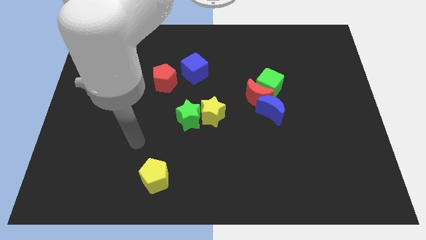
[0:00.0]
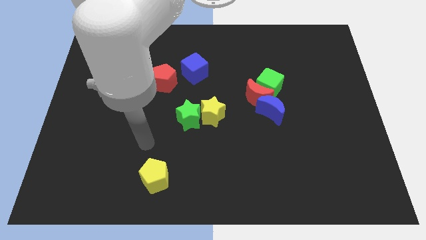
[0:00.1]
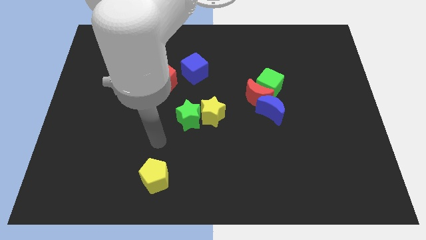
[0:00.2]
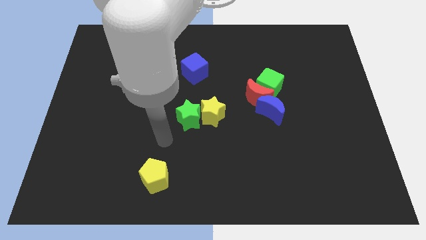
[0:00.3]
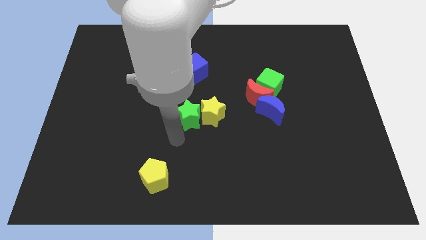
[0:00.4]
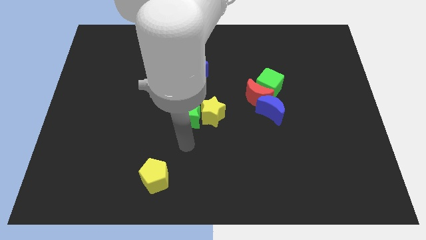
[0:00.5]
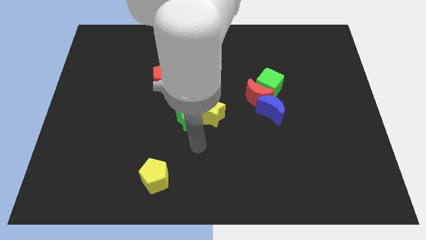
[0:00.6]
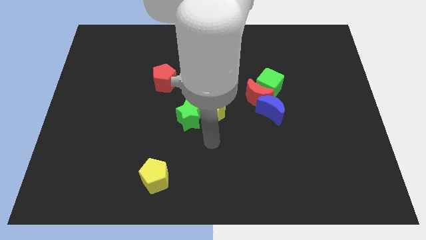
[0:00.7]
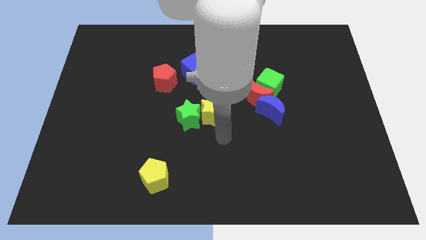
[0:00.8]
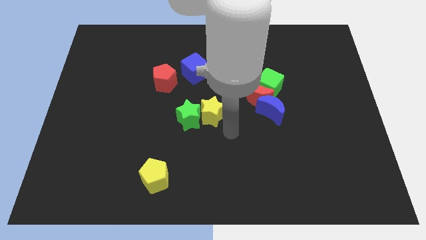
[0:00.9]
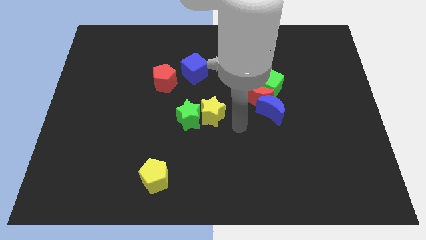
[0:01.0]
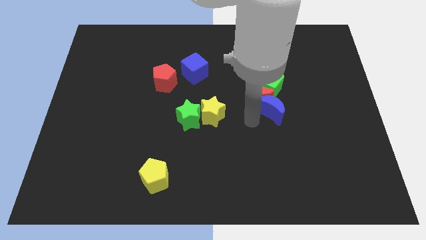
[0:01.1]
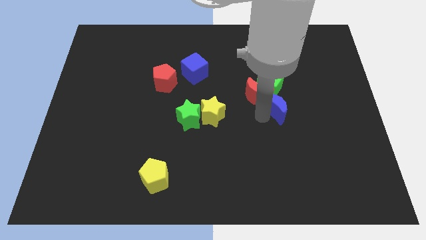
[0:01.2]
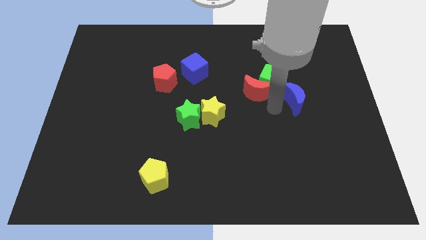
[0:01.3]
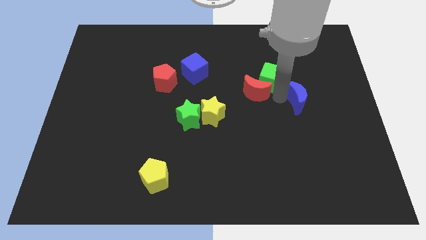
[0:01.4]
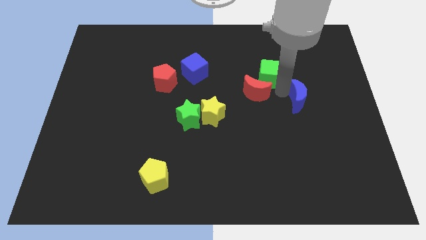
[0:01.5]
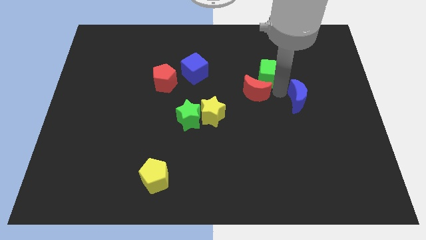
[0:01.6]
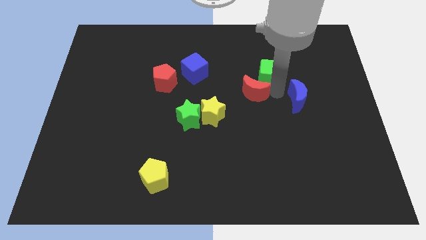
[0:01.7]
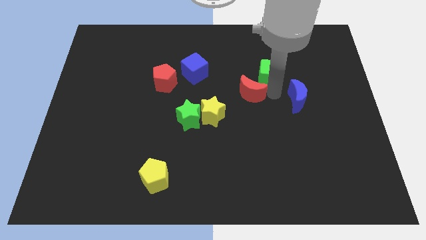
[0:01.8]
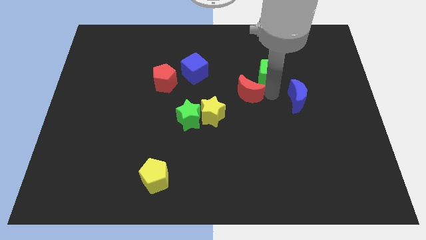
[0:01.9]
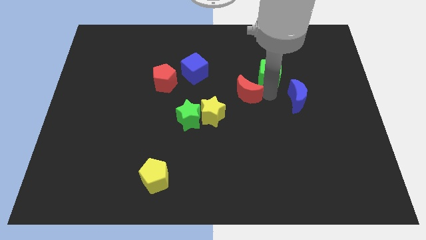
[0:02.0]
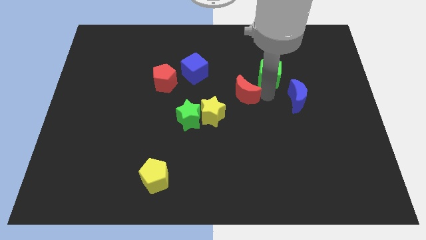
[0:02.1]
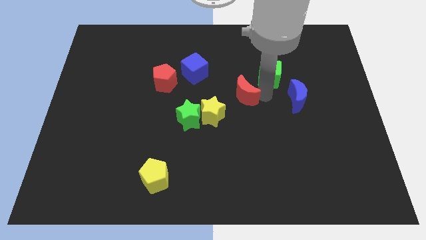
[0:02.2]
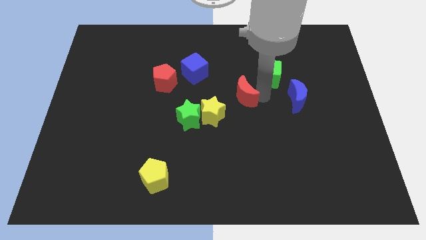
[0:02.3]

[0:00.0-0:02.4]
separate the red moon from the green cube and blue moon

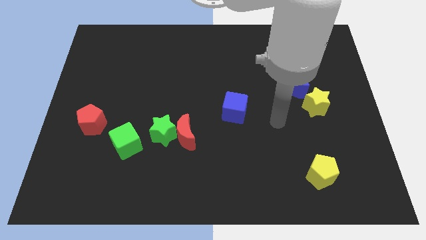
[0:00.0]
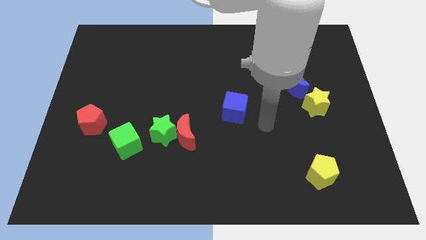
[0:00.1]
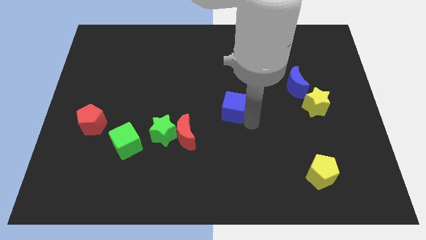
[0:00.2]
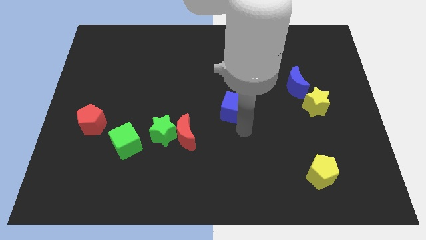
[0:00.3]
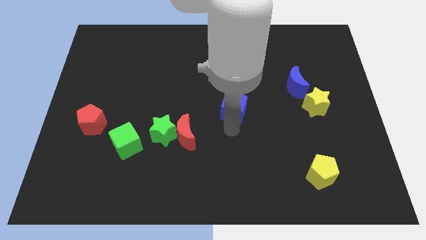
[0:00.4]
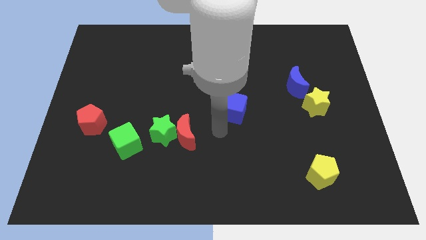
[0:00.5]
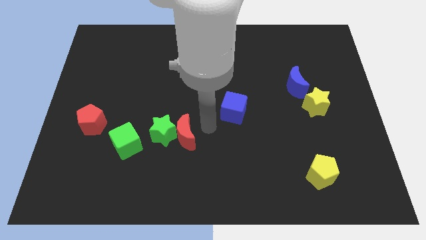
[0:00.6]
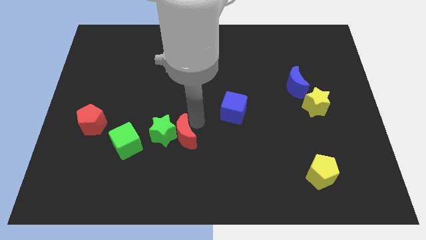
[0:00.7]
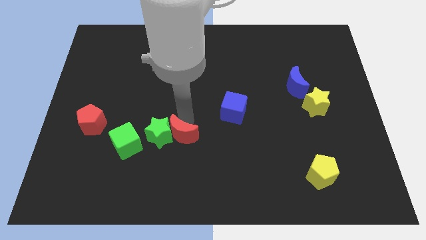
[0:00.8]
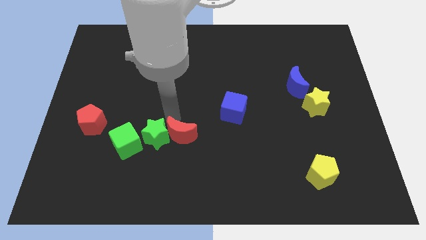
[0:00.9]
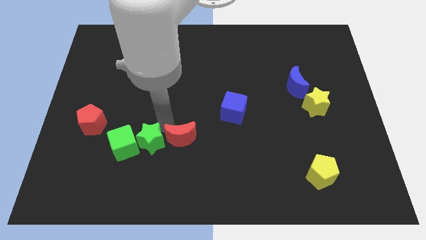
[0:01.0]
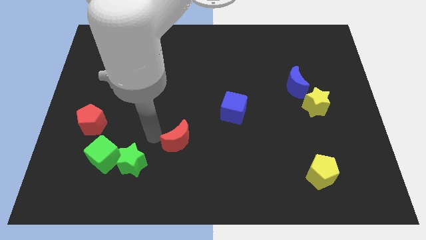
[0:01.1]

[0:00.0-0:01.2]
pull the red moon apart from the green star

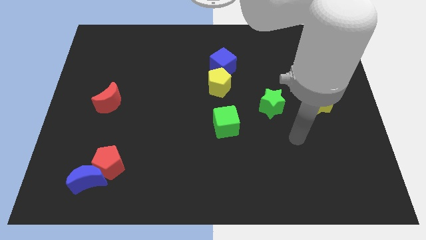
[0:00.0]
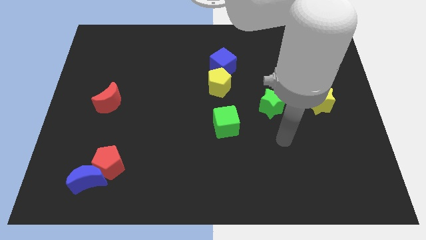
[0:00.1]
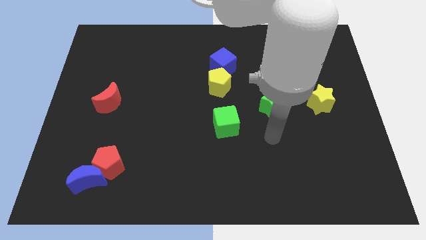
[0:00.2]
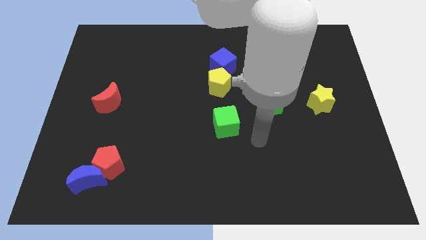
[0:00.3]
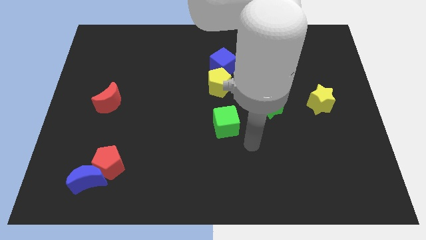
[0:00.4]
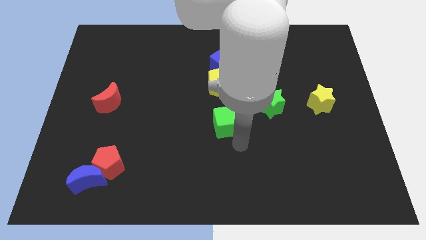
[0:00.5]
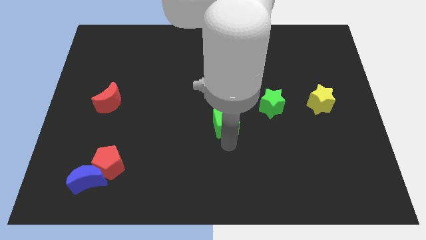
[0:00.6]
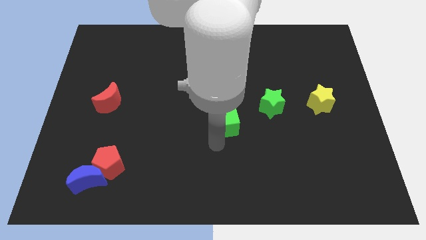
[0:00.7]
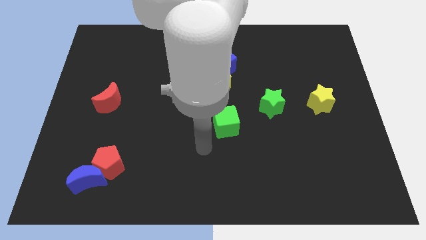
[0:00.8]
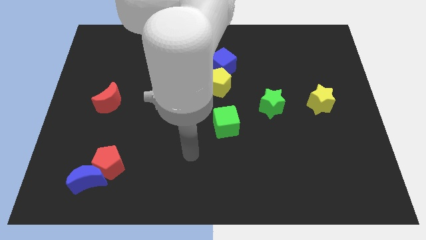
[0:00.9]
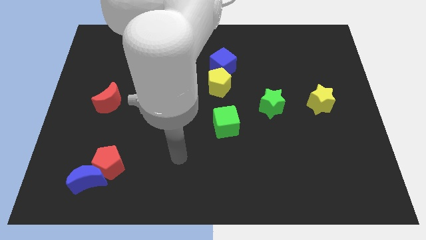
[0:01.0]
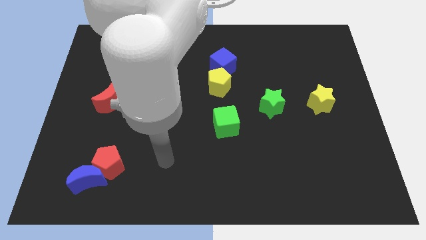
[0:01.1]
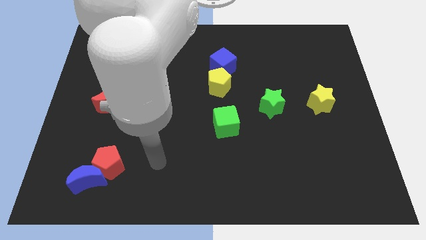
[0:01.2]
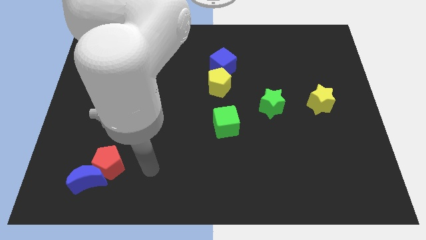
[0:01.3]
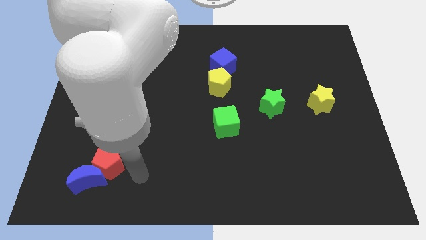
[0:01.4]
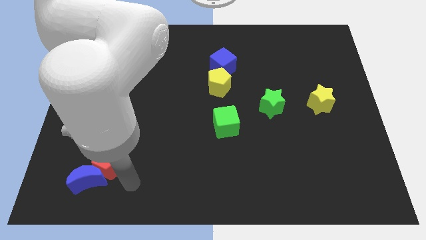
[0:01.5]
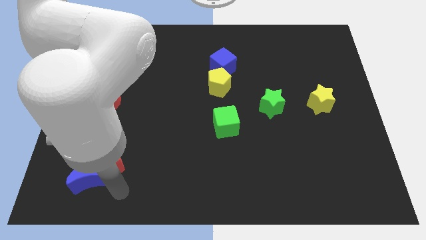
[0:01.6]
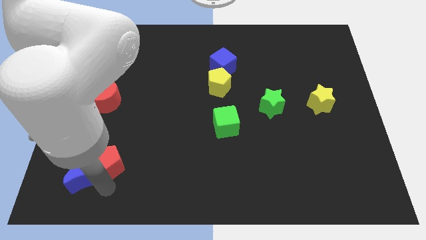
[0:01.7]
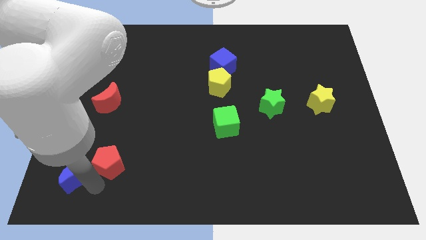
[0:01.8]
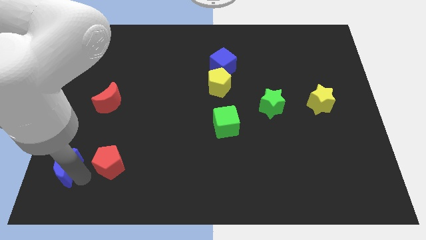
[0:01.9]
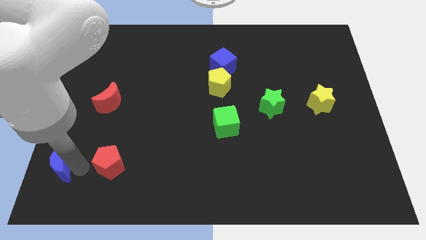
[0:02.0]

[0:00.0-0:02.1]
pull the red pentagon apart from the blue moon

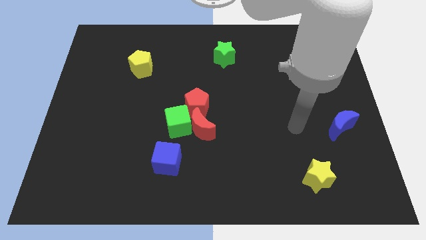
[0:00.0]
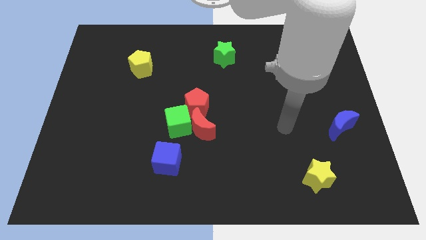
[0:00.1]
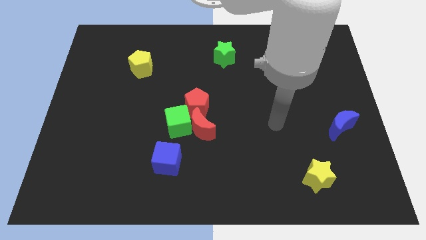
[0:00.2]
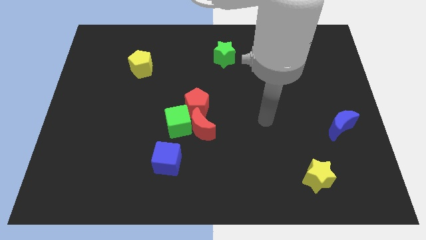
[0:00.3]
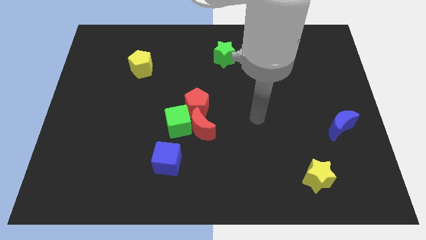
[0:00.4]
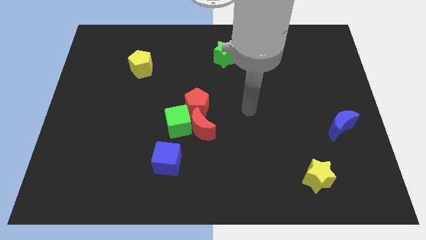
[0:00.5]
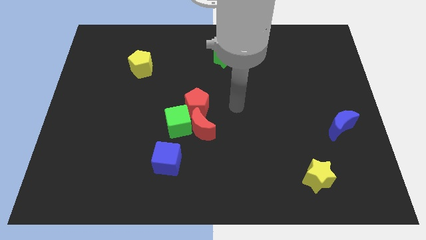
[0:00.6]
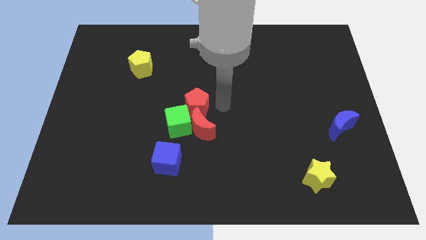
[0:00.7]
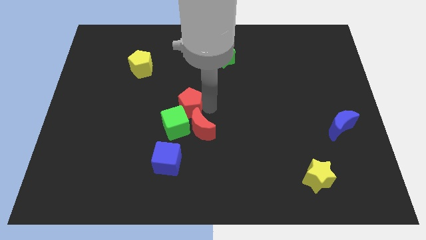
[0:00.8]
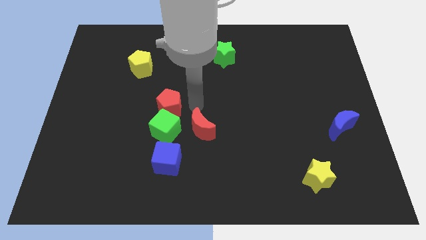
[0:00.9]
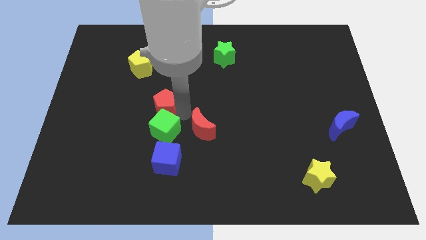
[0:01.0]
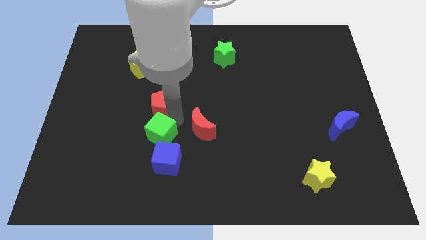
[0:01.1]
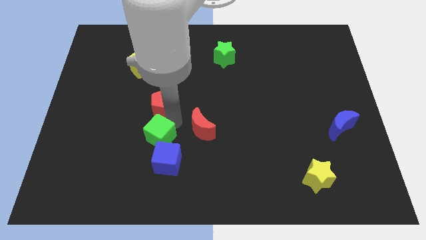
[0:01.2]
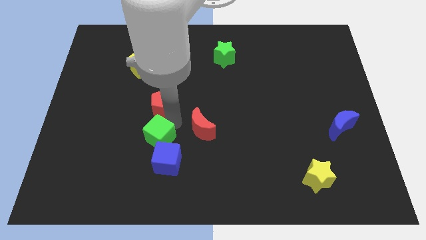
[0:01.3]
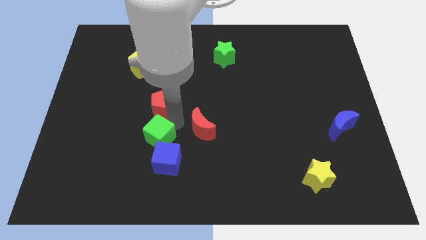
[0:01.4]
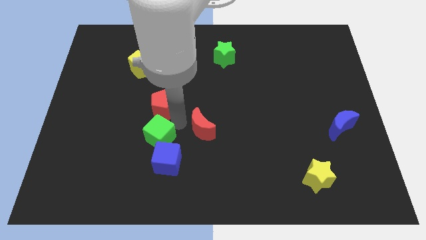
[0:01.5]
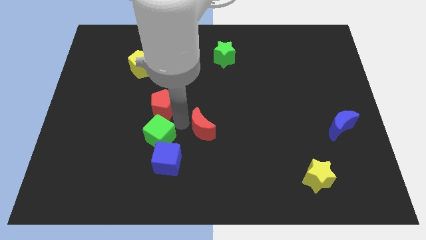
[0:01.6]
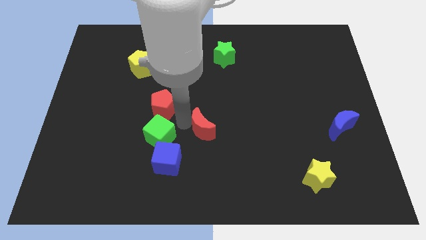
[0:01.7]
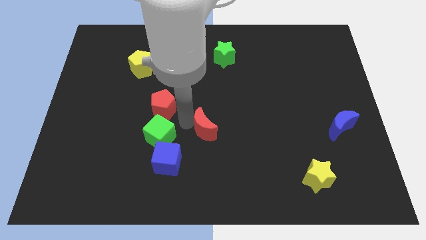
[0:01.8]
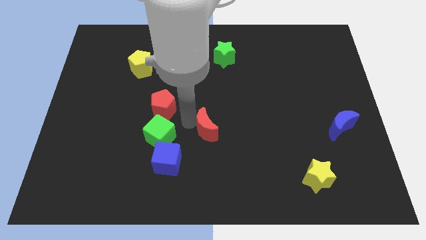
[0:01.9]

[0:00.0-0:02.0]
move the red moon away from the green cube and red pentagon

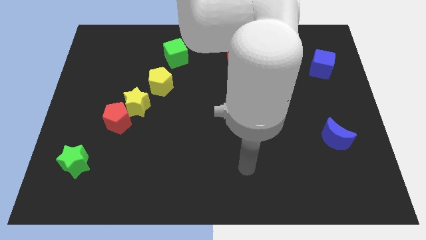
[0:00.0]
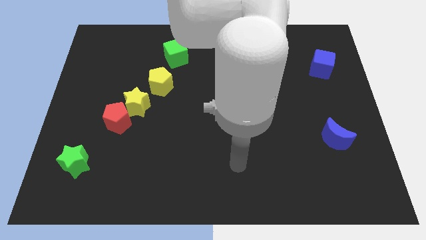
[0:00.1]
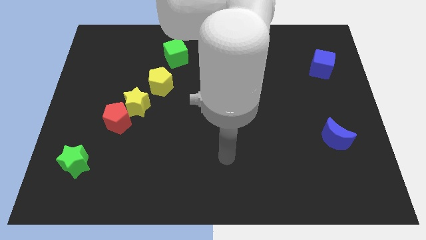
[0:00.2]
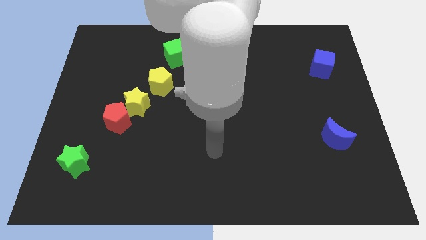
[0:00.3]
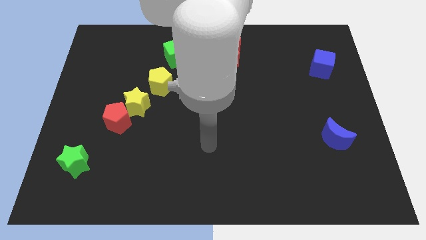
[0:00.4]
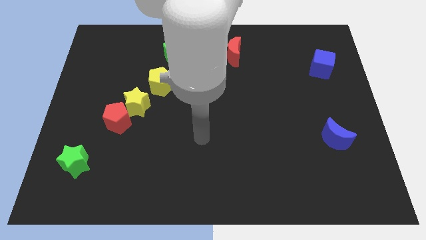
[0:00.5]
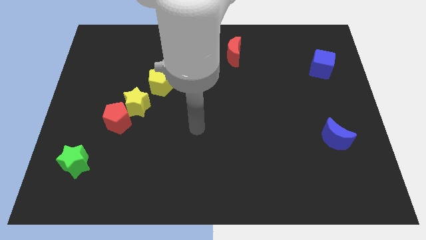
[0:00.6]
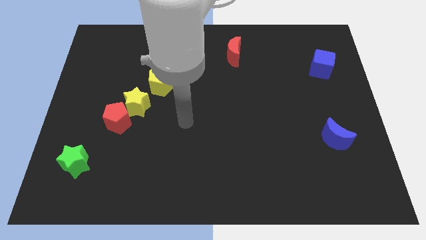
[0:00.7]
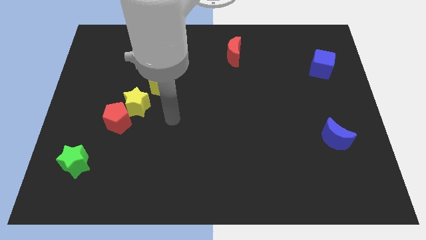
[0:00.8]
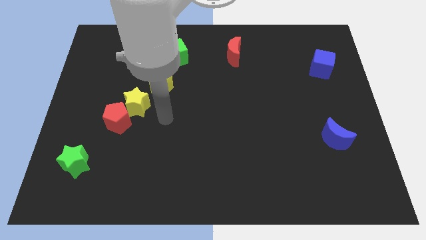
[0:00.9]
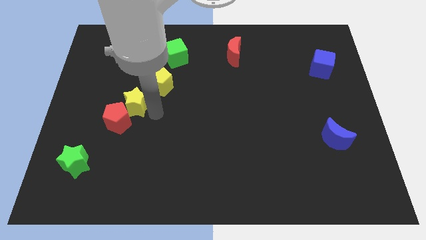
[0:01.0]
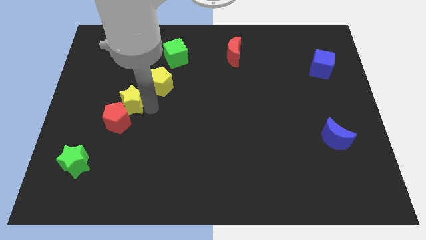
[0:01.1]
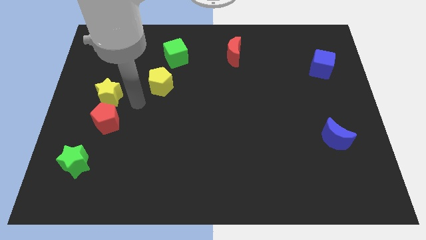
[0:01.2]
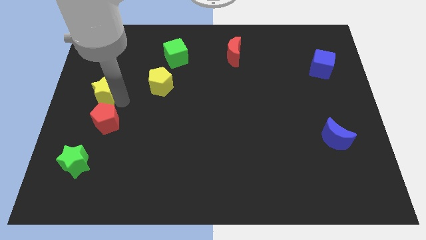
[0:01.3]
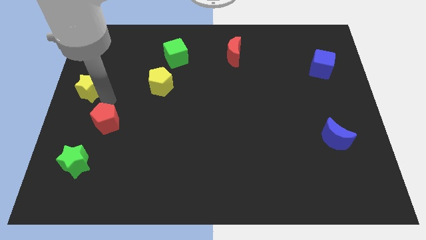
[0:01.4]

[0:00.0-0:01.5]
move the red pentagon away from the yellow star
